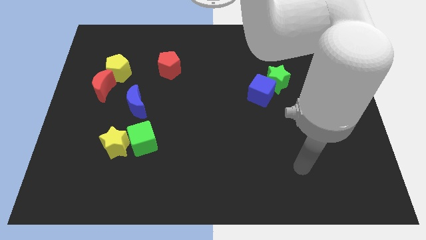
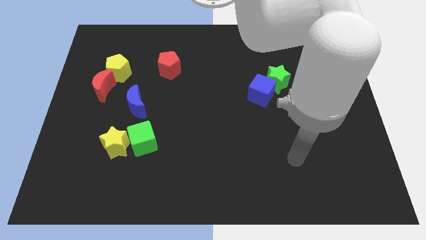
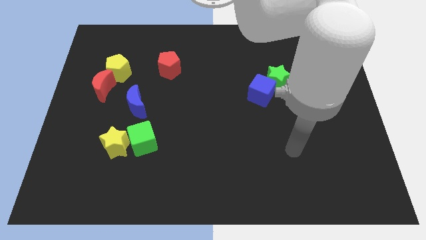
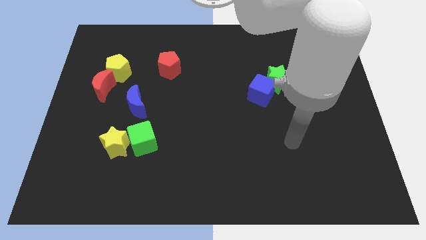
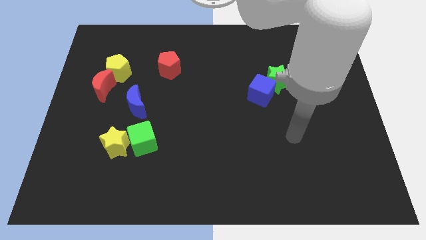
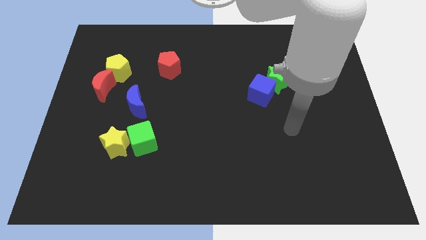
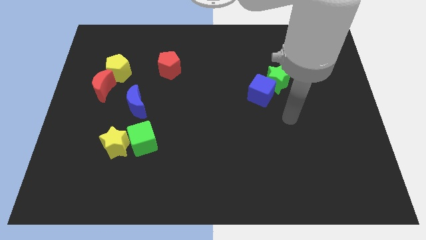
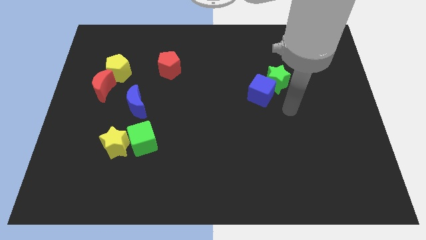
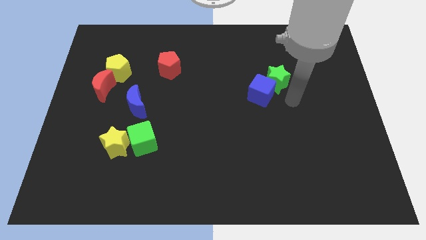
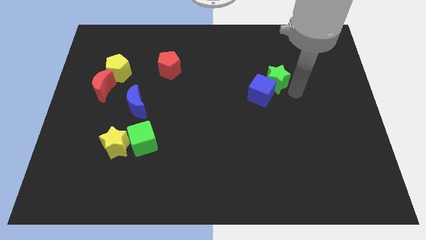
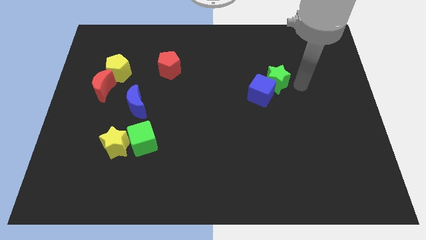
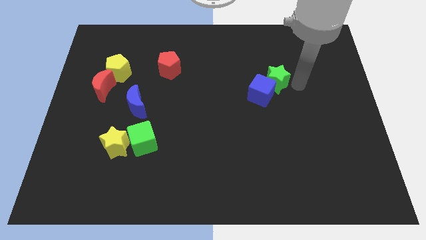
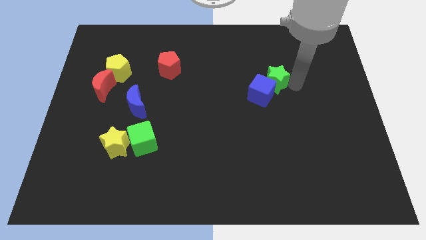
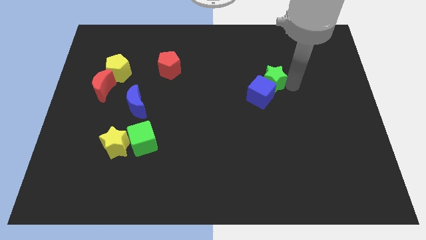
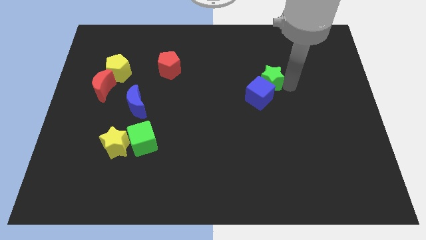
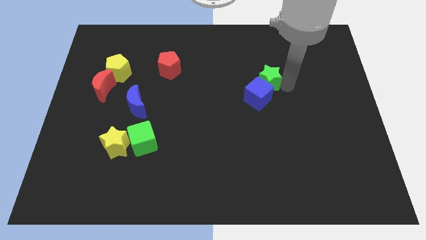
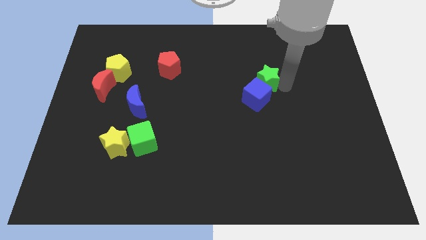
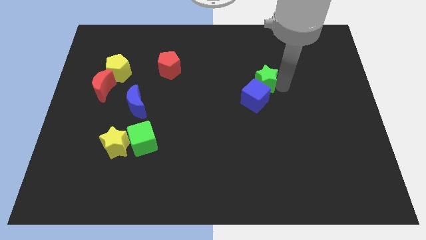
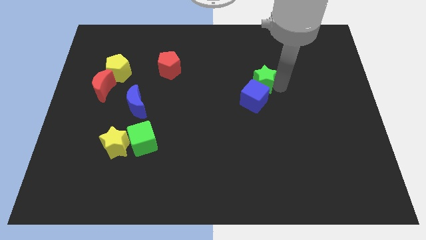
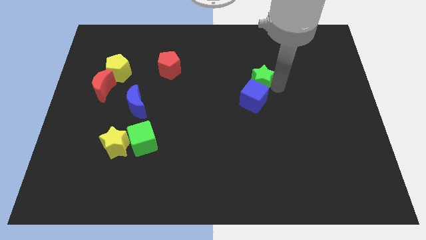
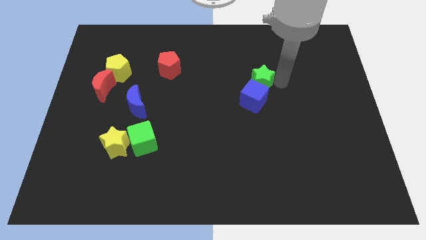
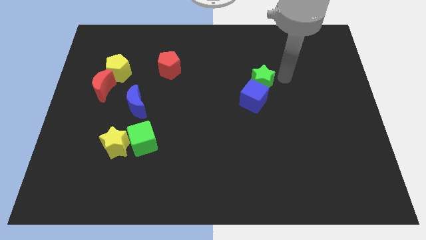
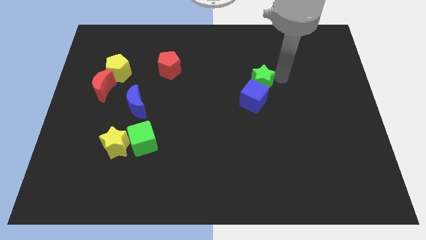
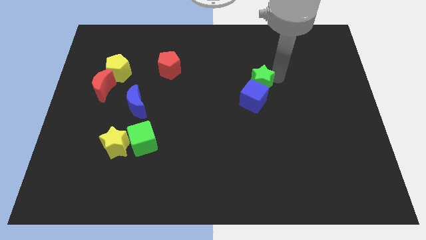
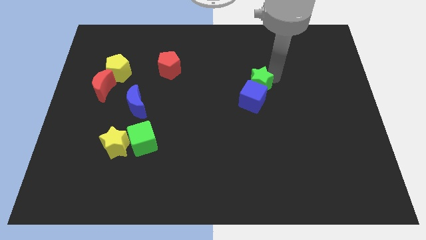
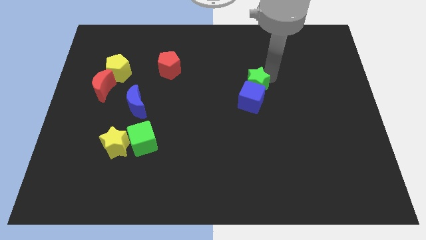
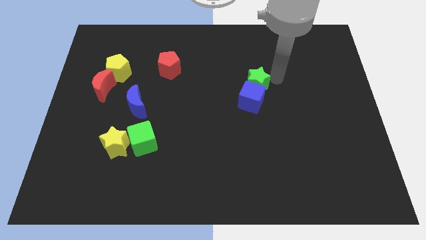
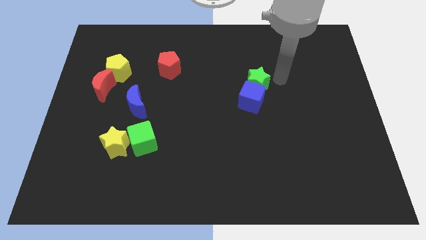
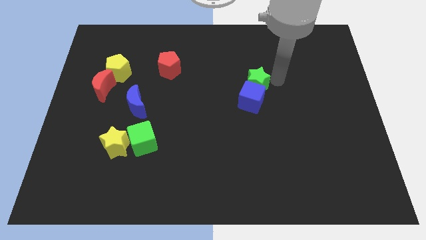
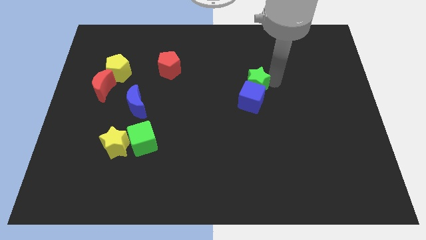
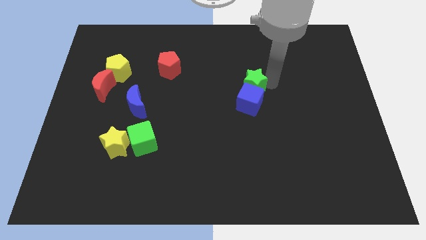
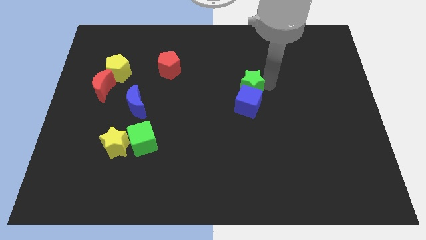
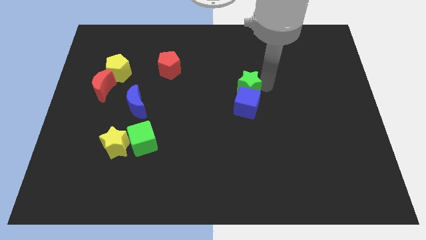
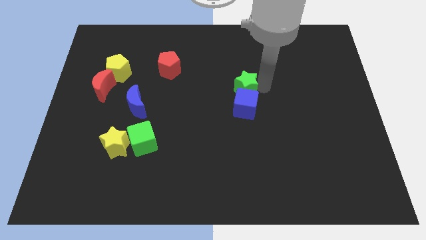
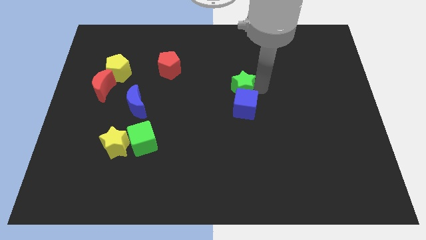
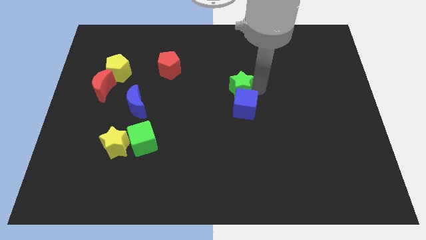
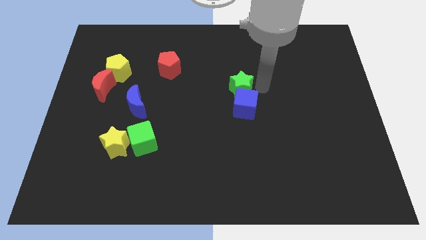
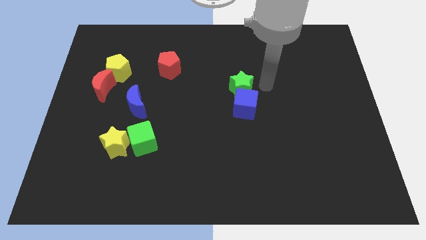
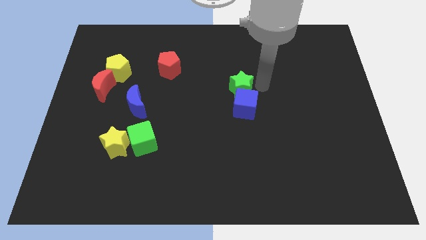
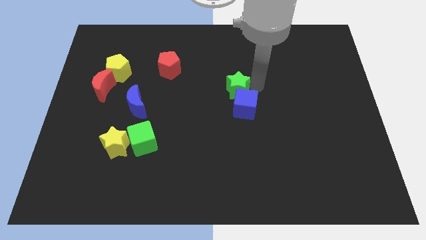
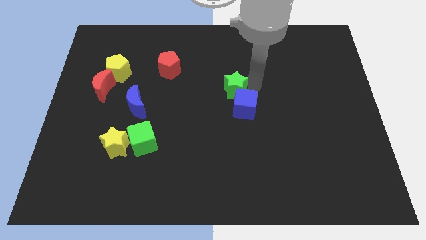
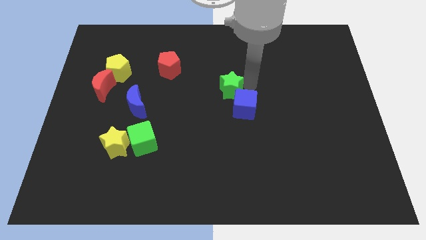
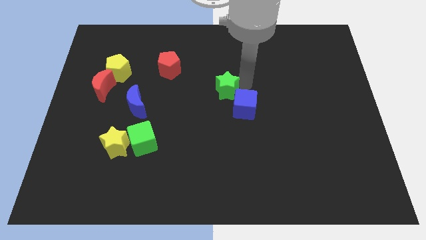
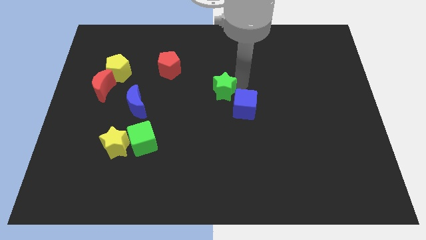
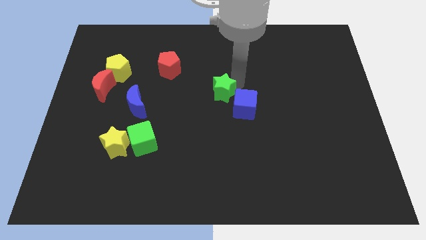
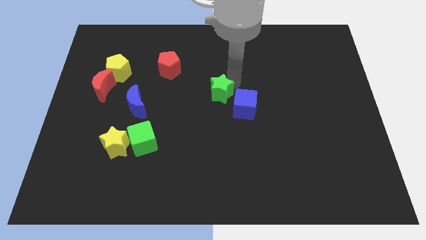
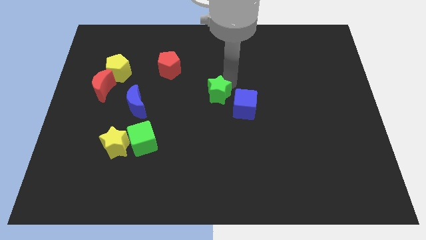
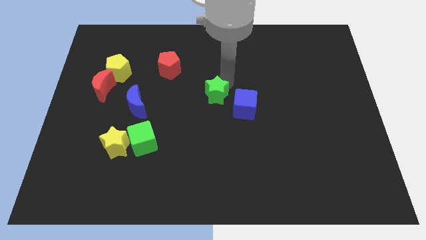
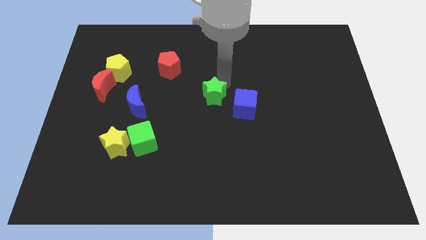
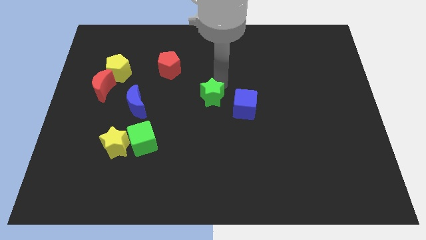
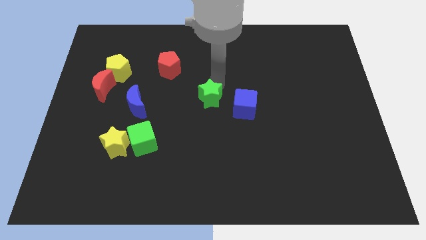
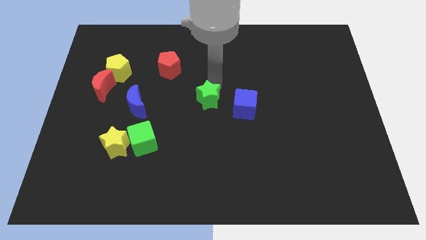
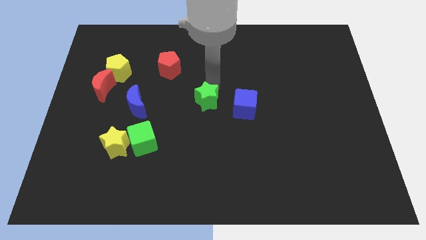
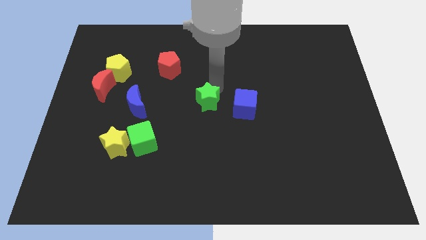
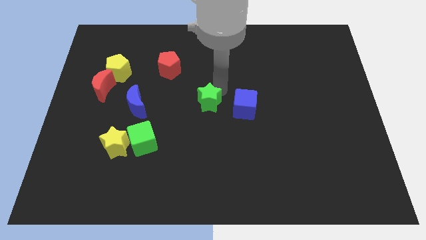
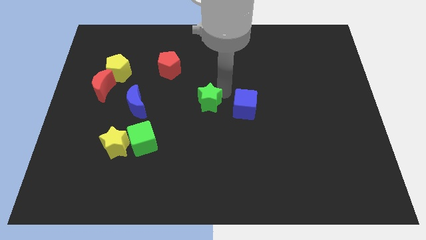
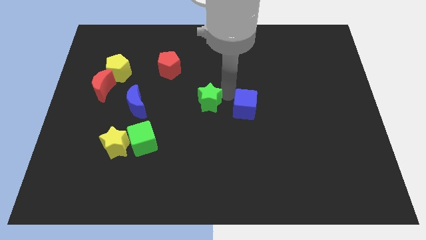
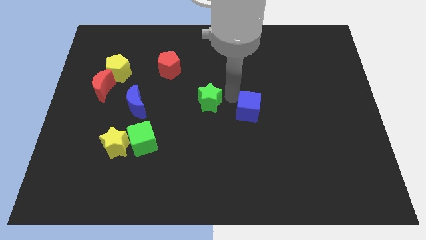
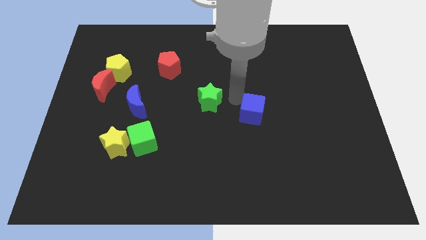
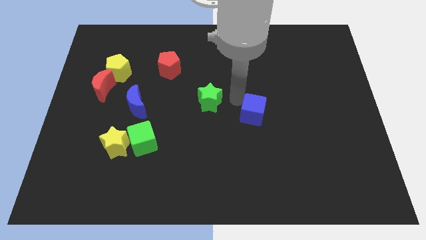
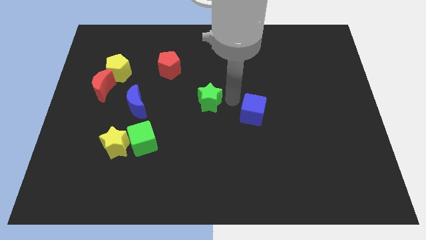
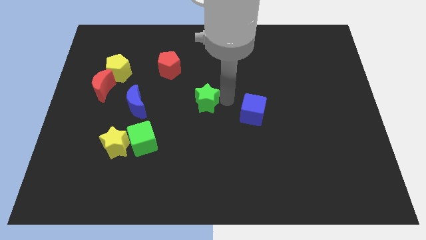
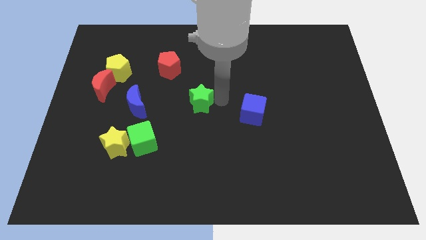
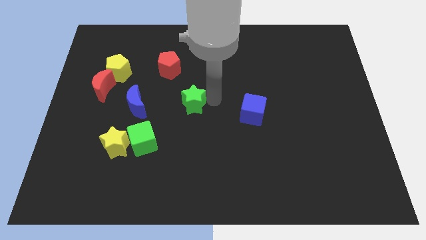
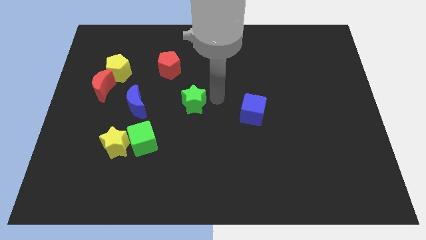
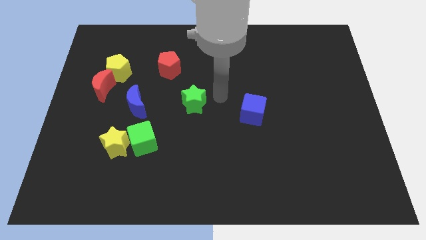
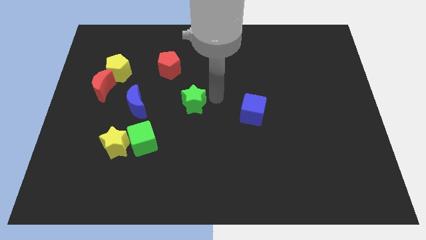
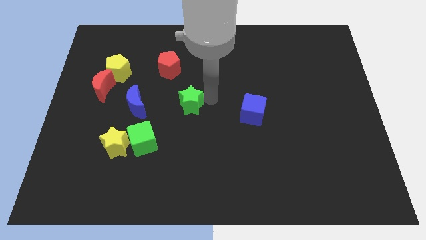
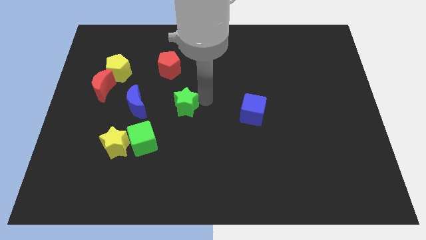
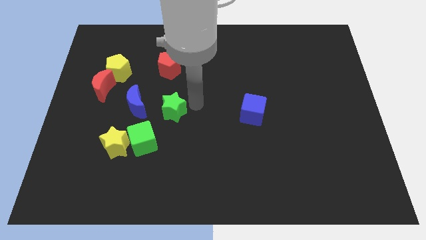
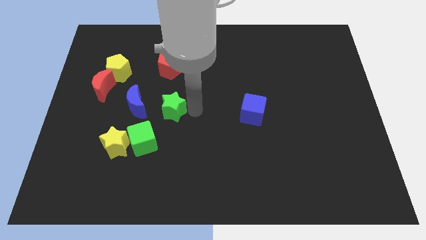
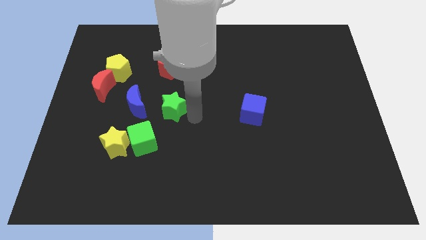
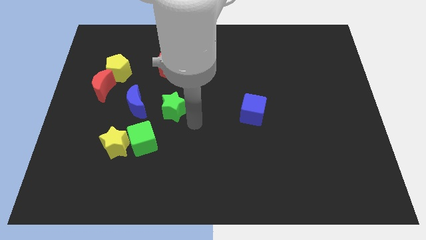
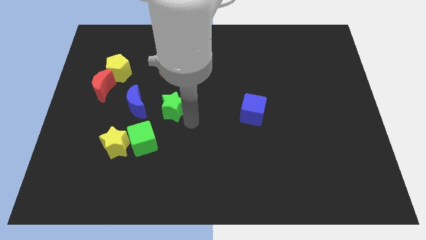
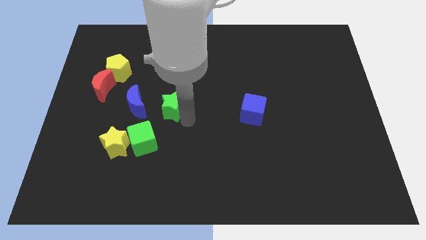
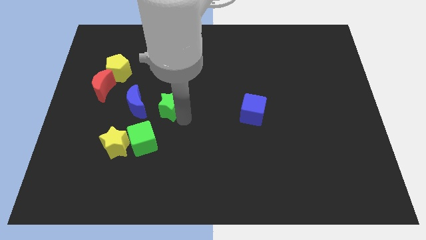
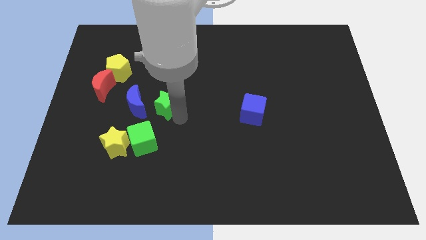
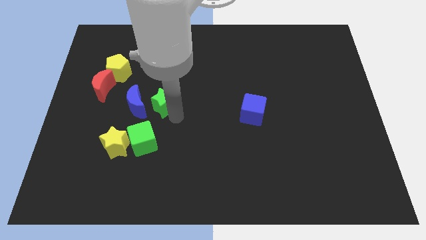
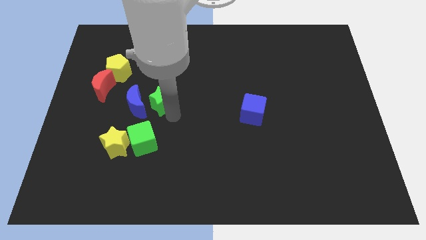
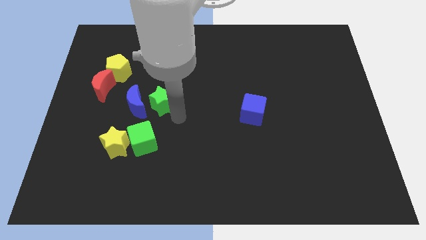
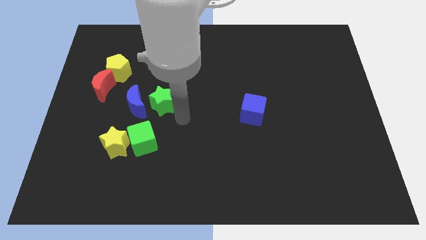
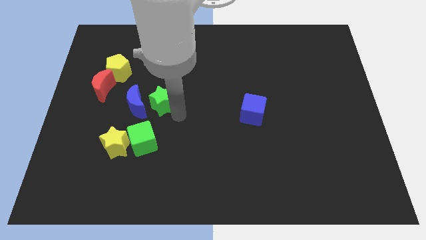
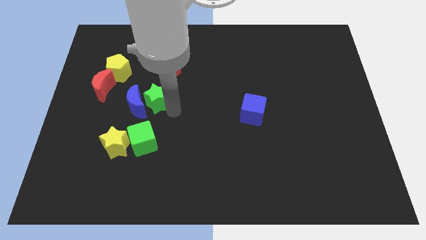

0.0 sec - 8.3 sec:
put the green star to the right of the red moon
